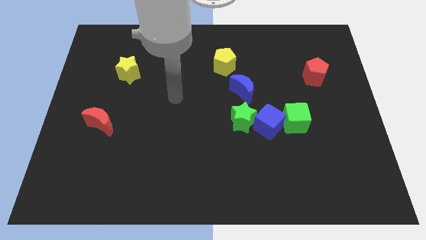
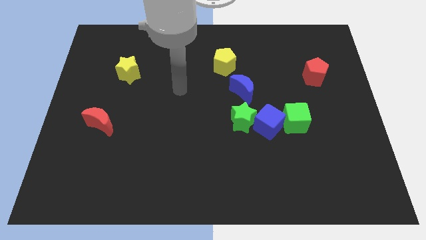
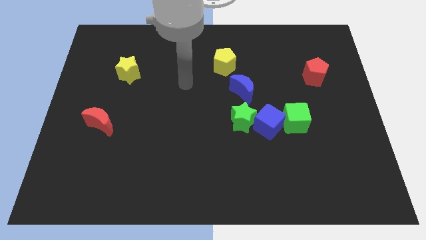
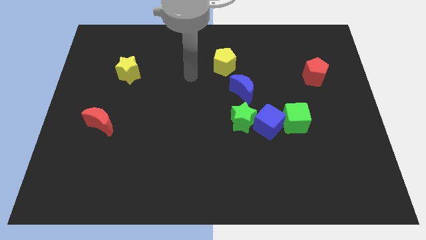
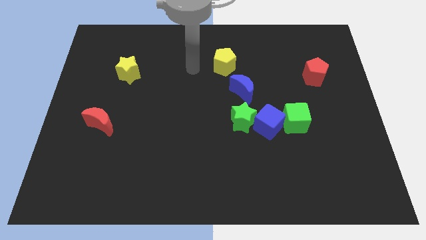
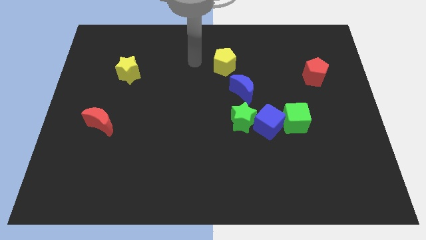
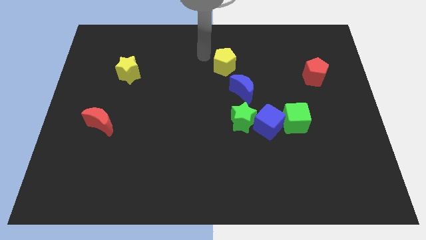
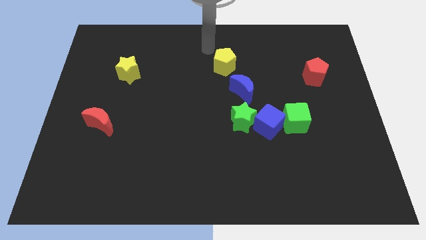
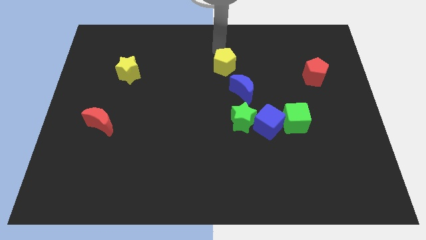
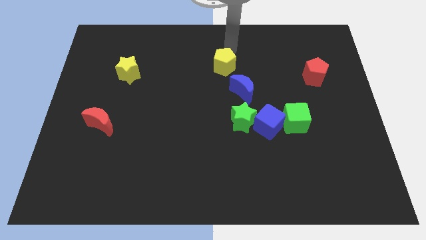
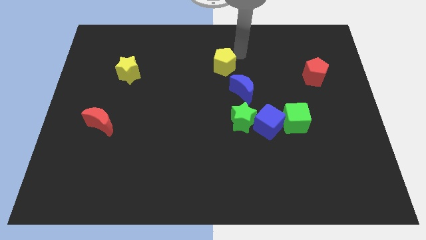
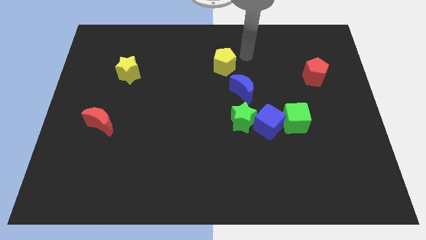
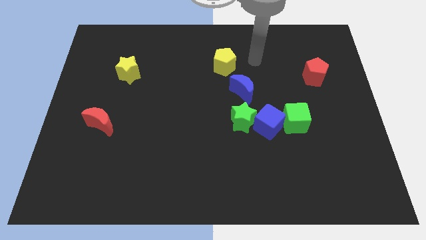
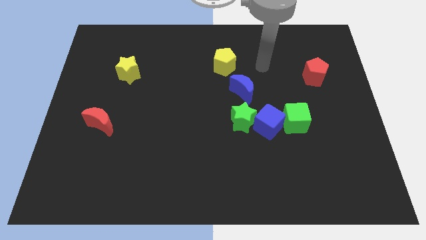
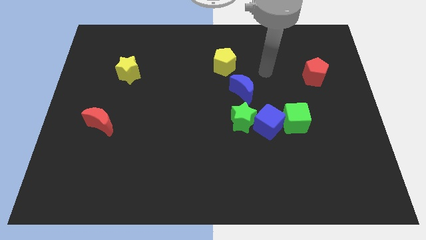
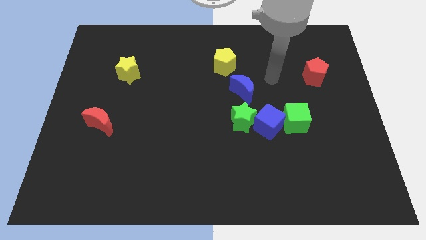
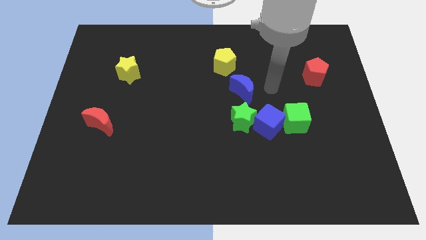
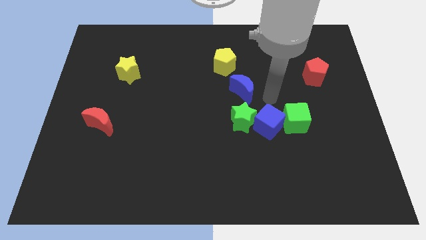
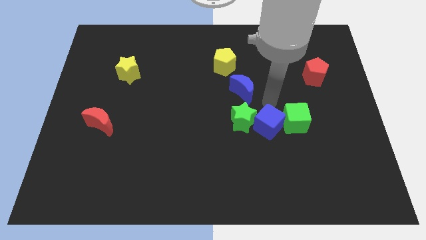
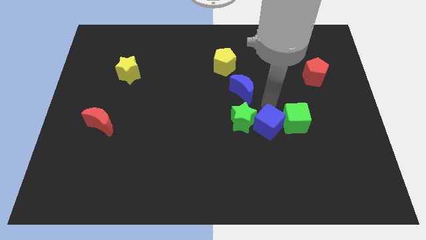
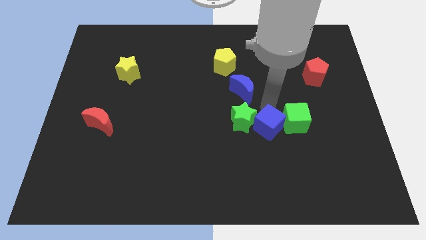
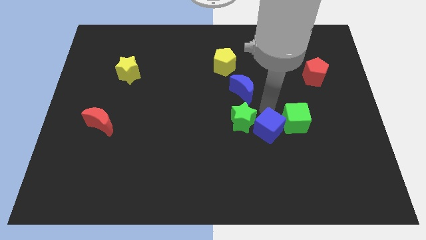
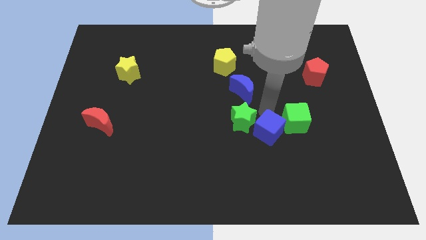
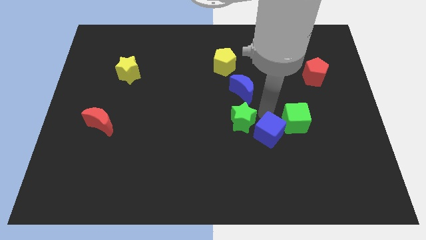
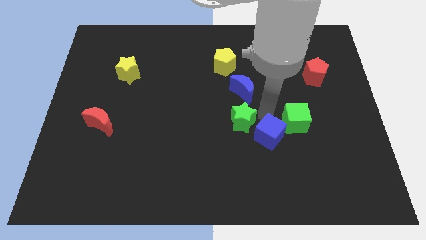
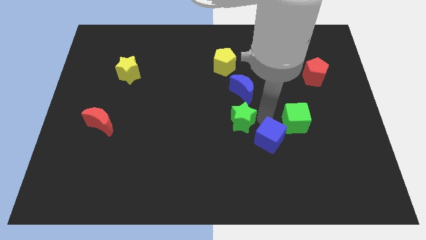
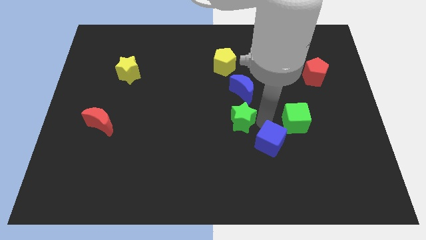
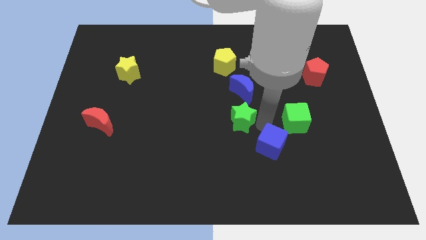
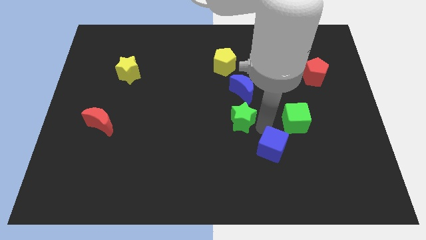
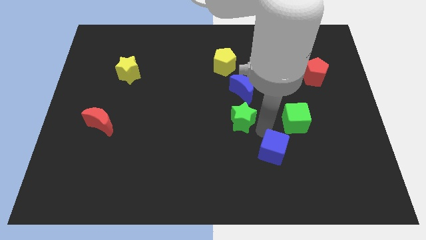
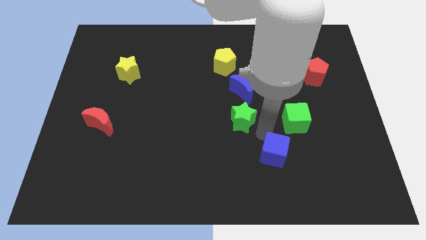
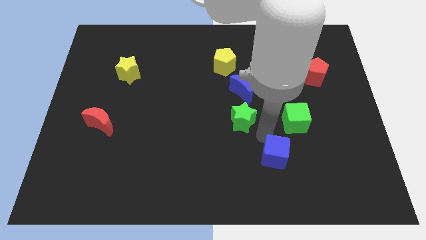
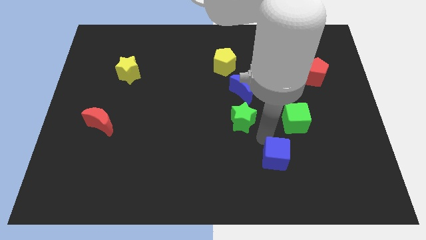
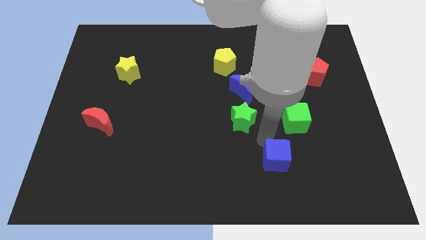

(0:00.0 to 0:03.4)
separate the blue cube from the green star and green cube

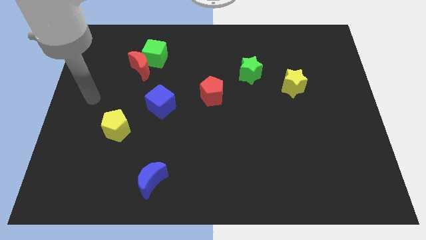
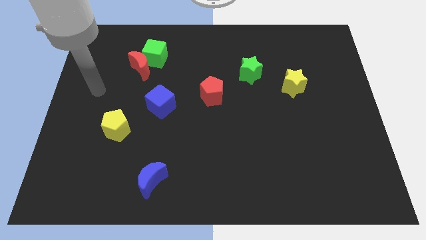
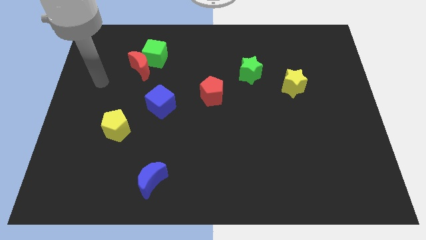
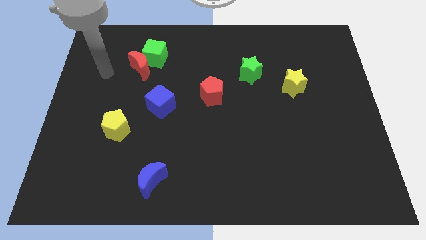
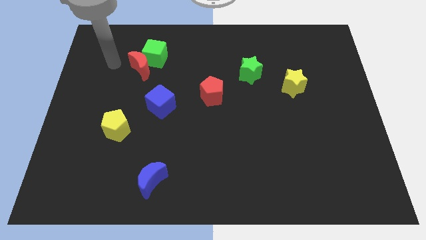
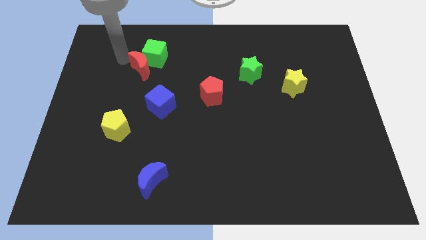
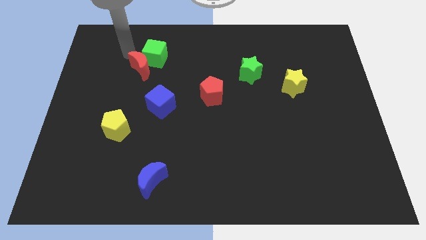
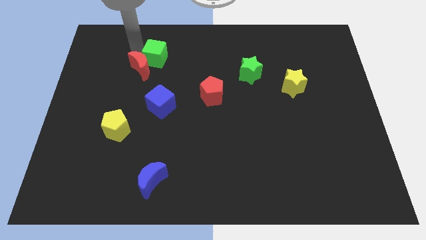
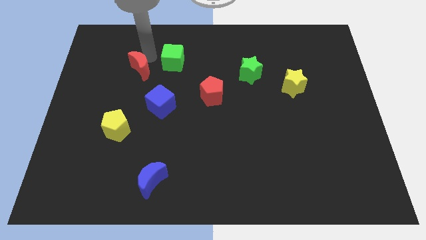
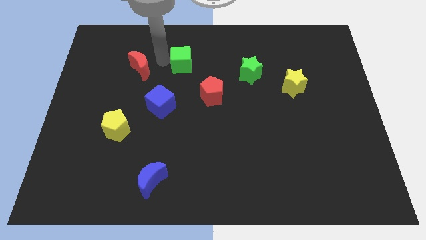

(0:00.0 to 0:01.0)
move the red moon away from the green cube

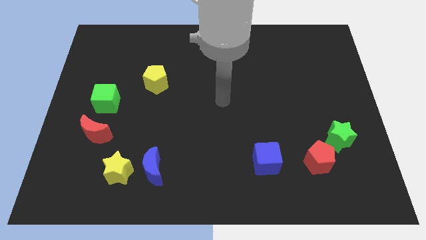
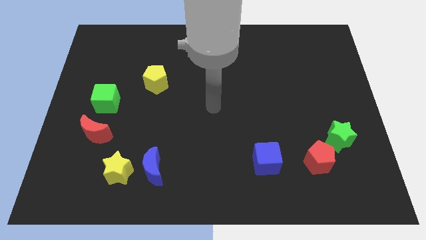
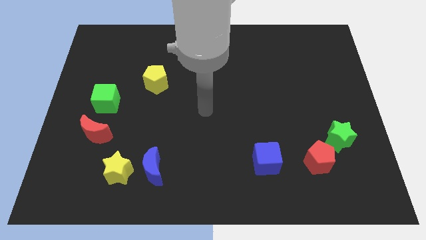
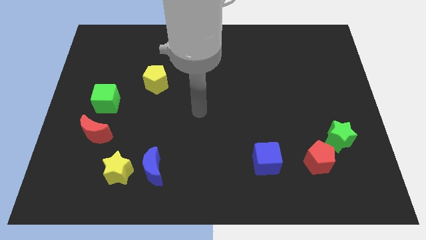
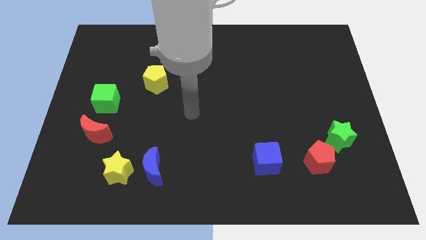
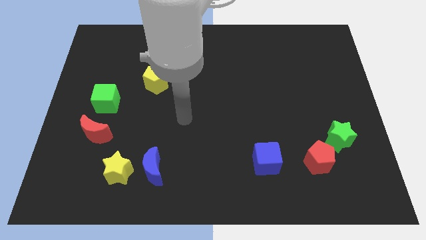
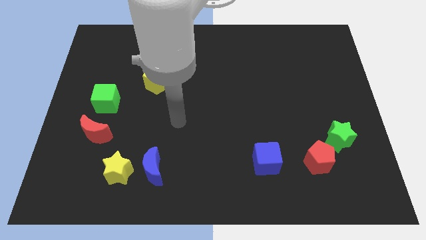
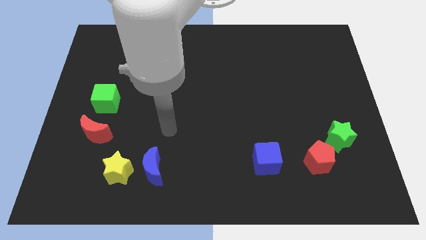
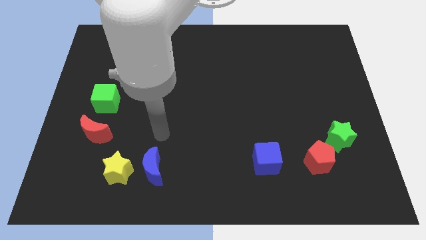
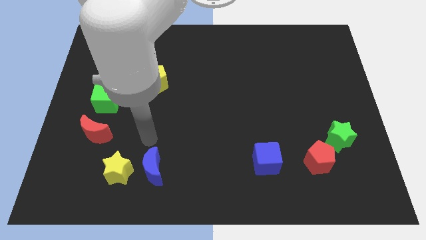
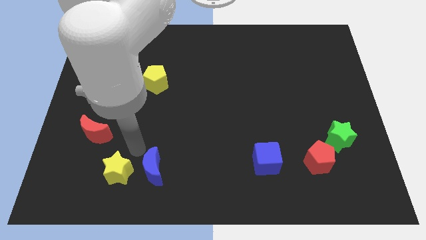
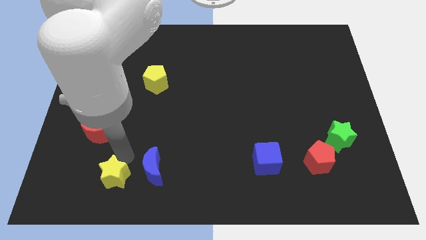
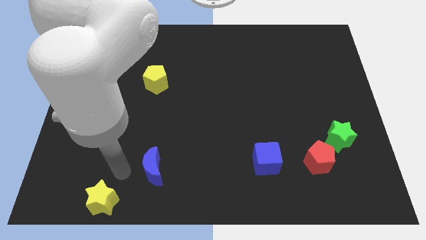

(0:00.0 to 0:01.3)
move the blue moon away from the yellow star

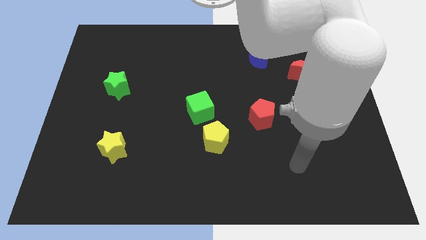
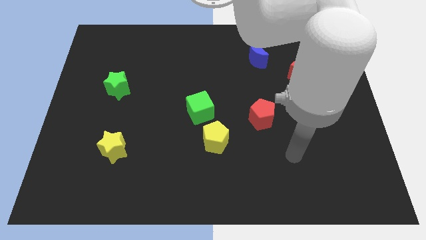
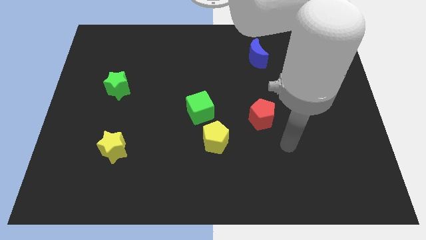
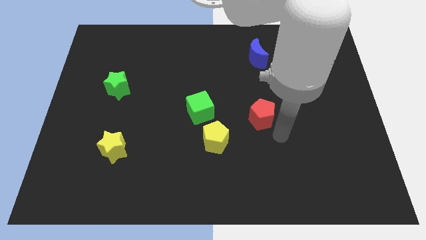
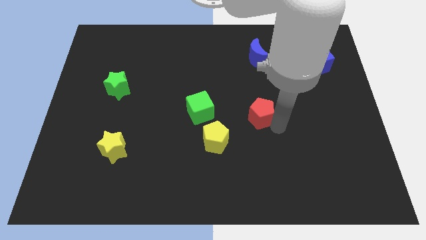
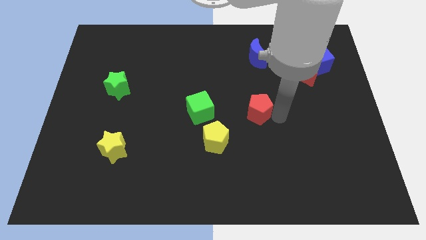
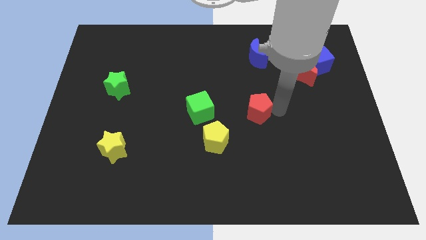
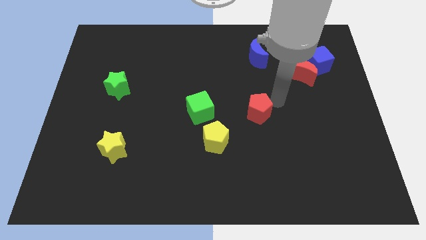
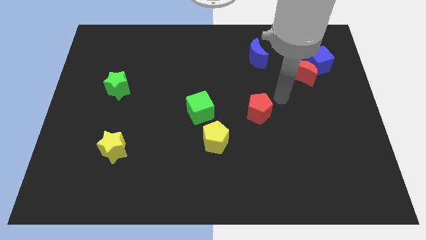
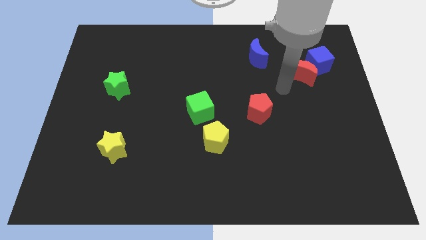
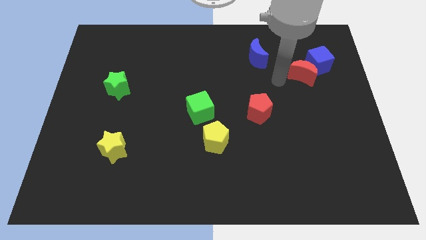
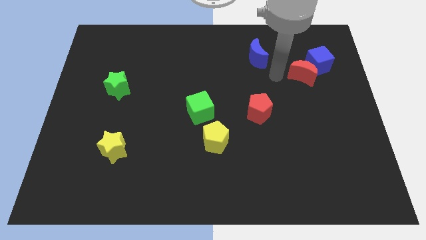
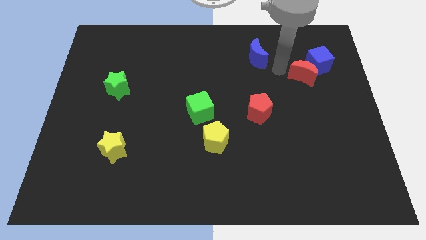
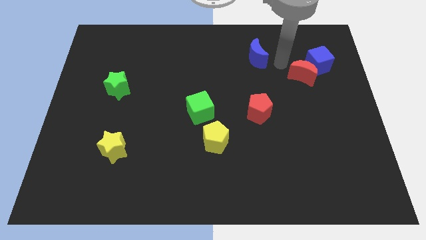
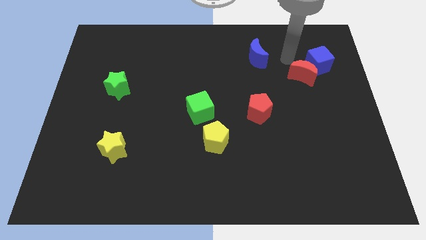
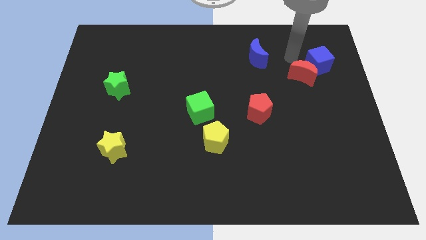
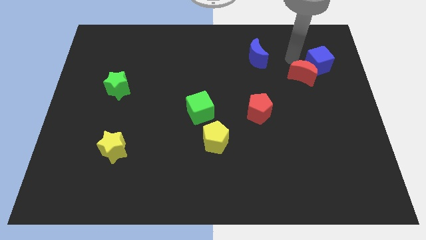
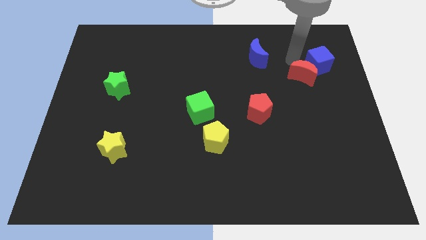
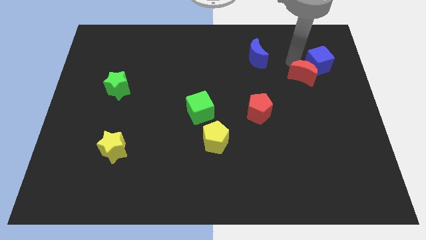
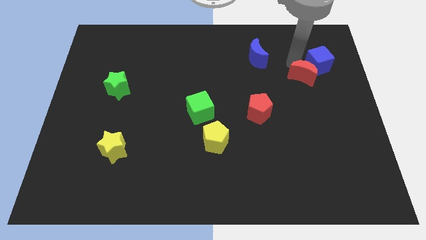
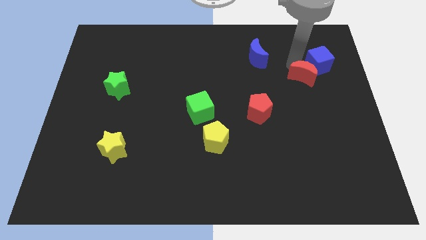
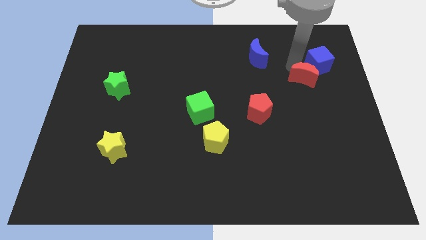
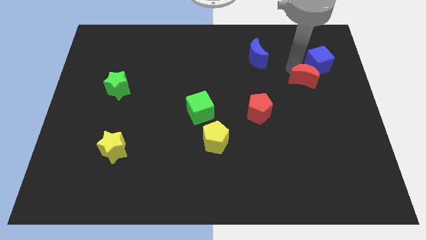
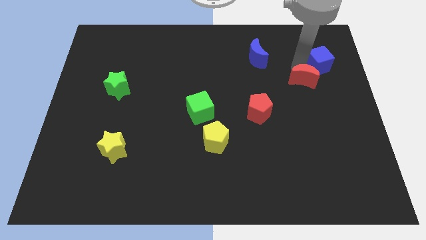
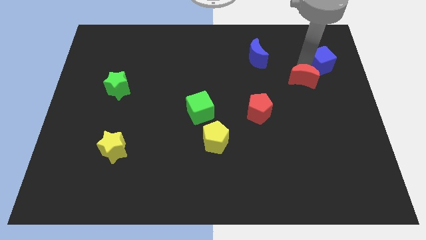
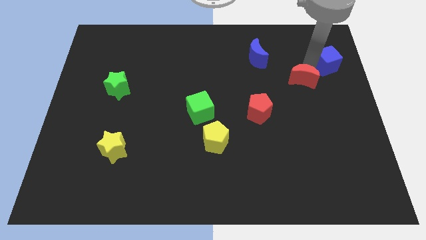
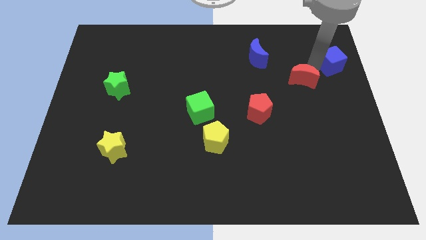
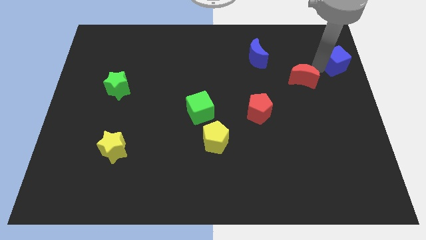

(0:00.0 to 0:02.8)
move the red moon away from the blue cube

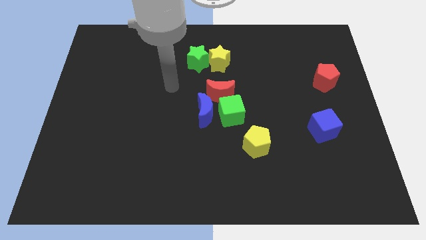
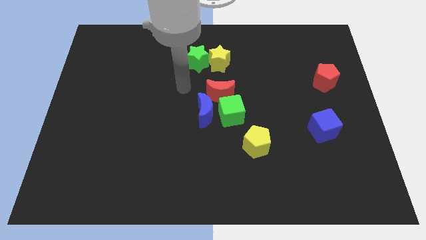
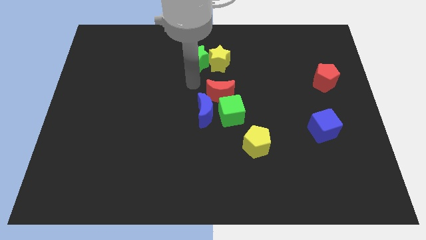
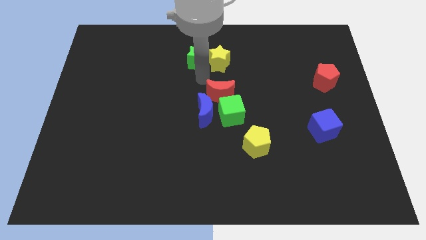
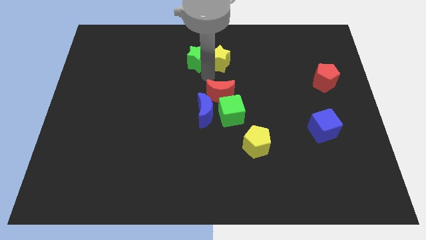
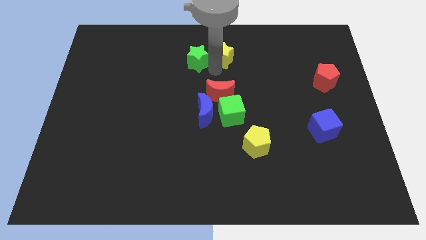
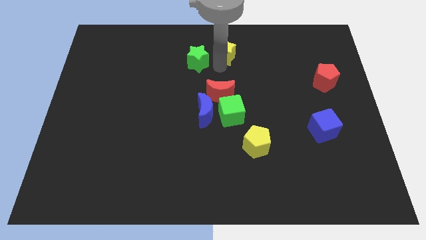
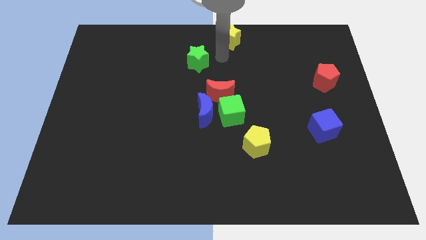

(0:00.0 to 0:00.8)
move the green star away from the yellow star

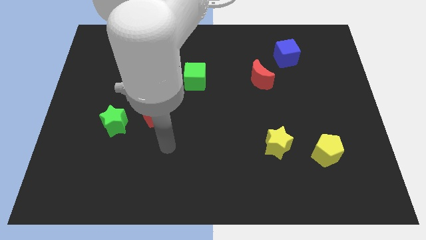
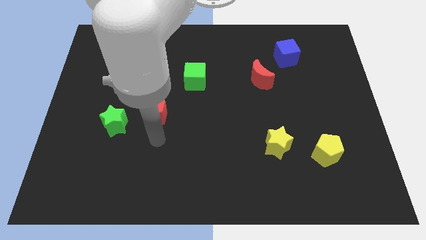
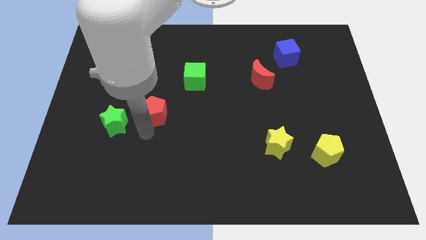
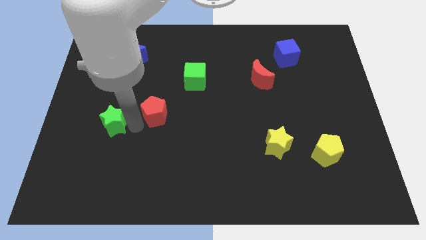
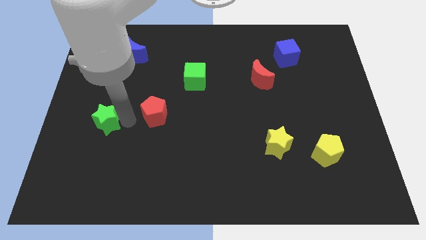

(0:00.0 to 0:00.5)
pull the red pentagon apart from the green star
